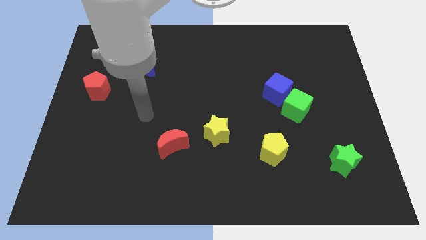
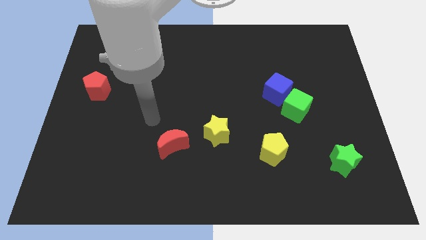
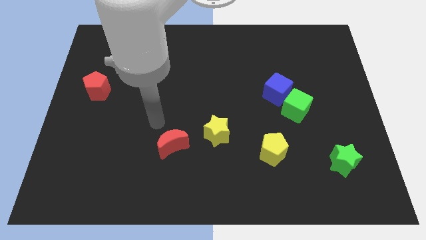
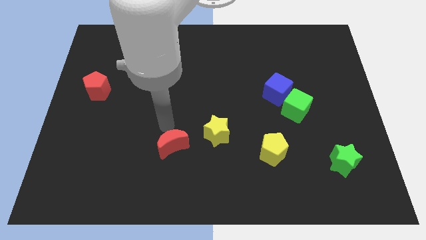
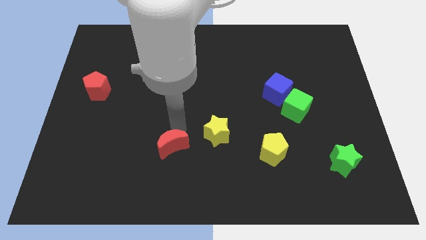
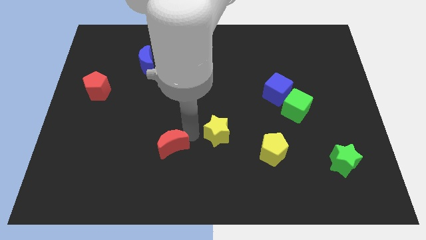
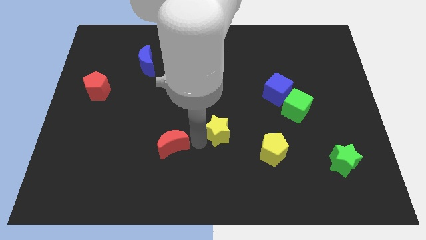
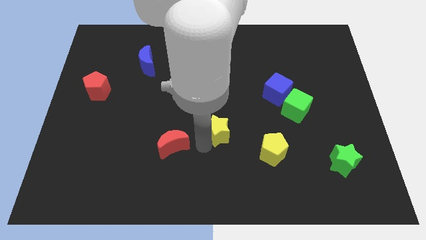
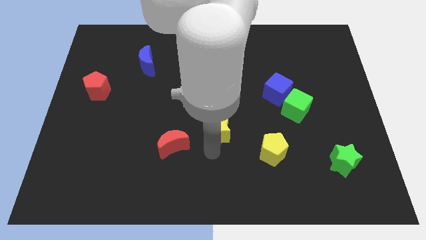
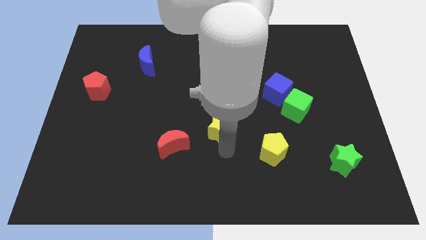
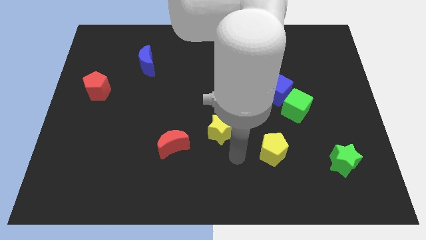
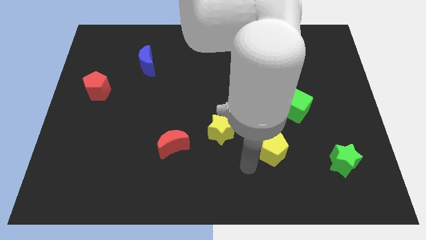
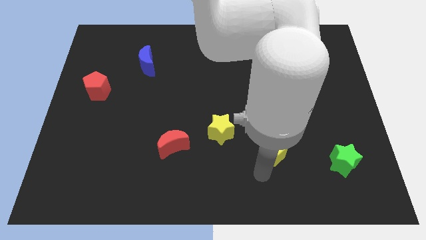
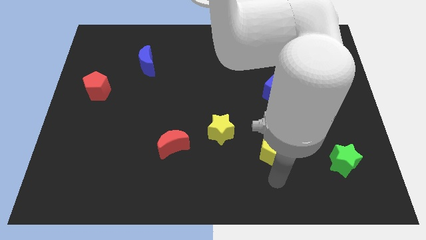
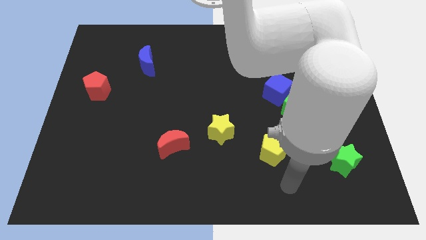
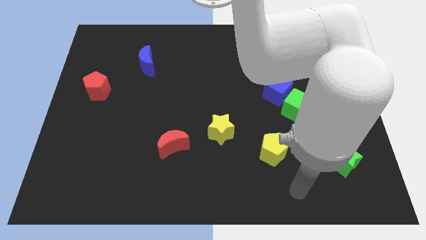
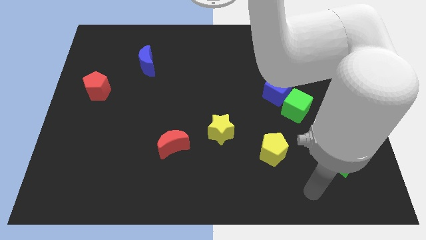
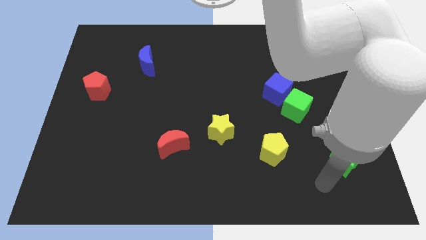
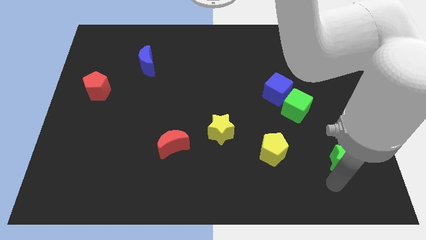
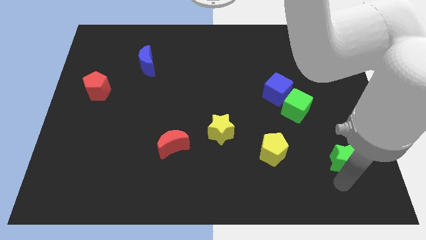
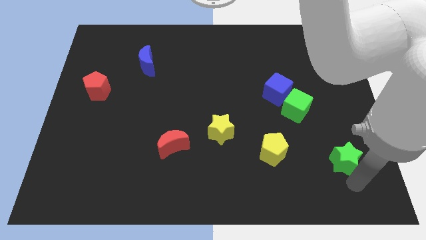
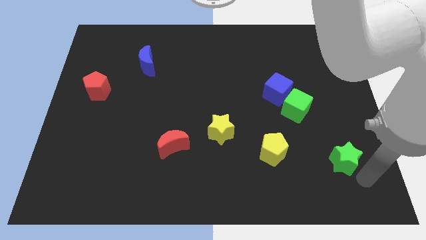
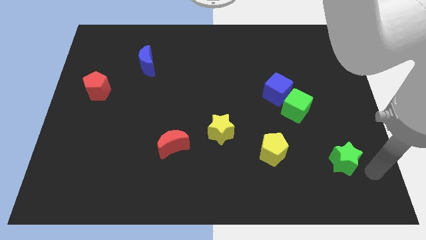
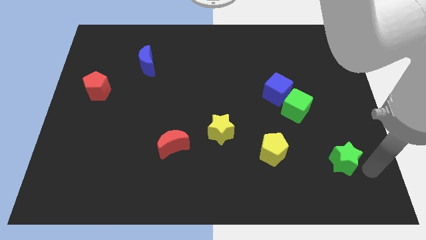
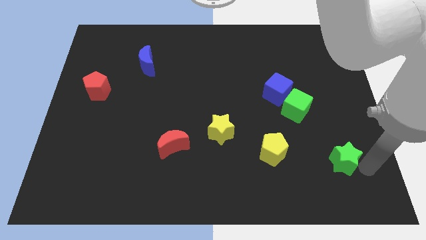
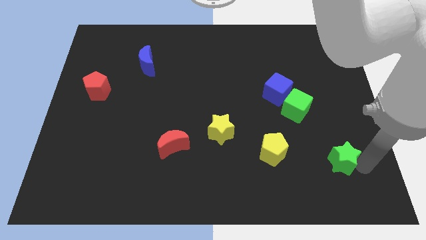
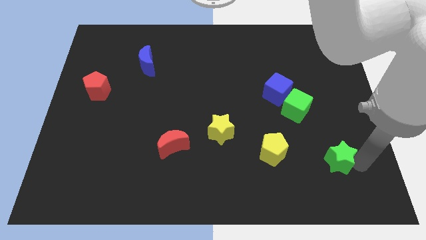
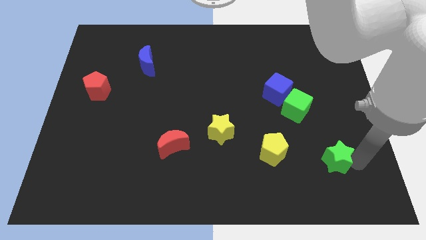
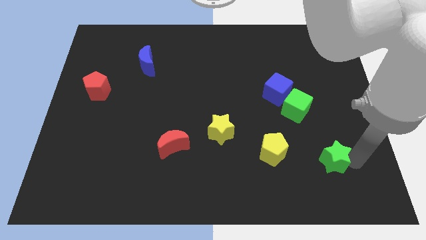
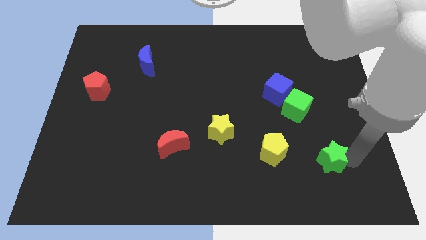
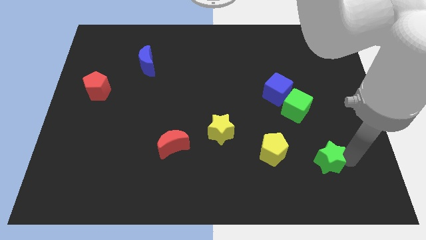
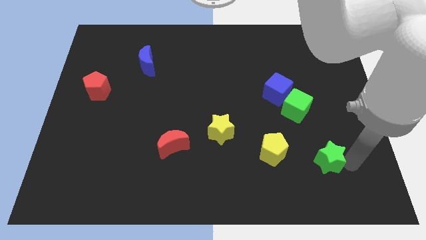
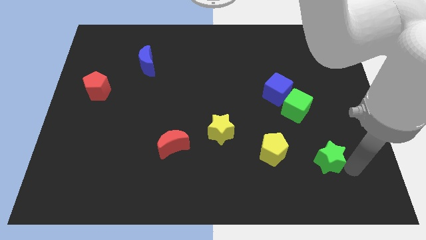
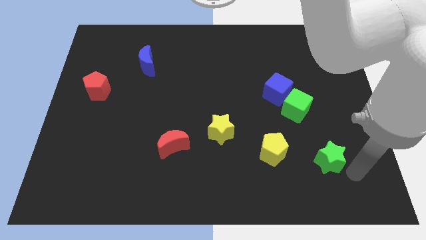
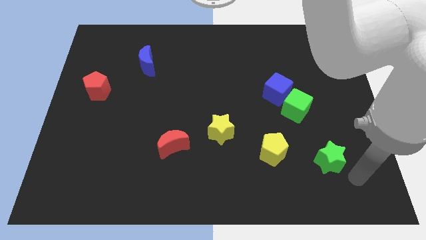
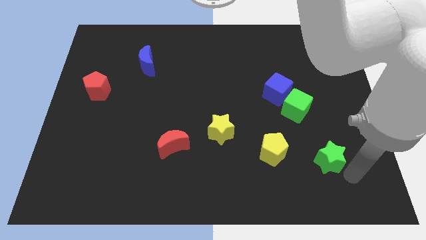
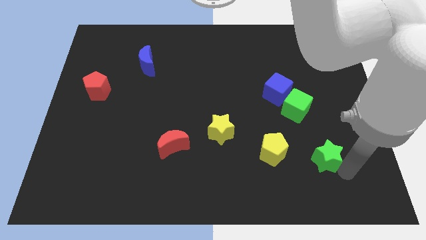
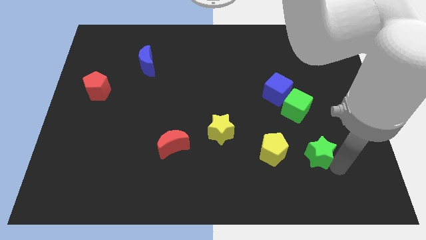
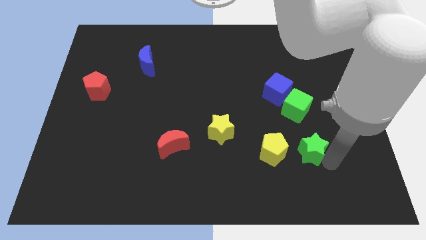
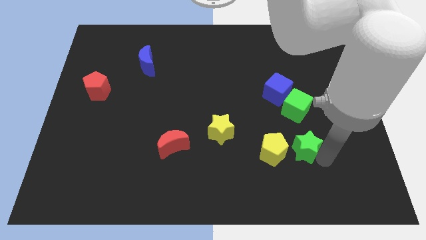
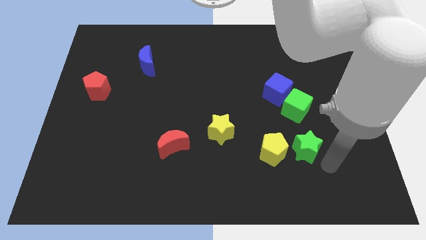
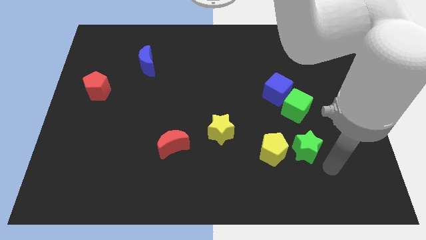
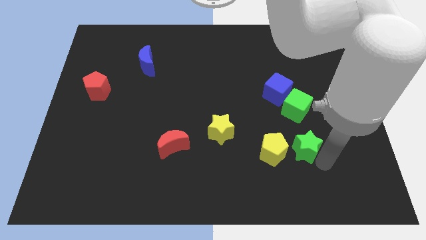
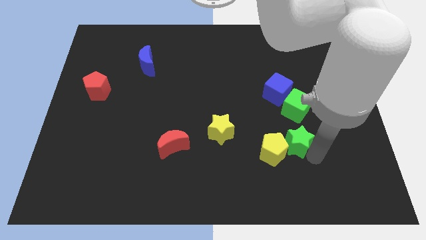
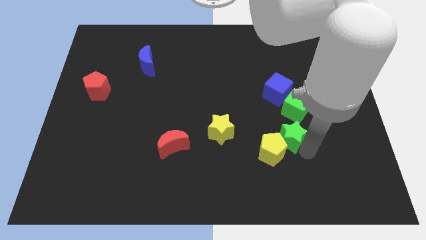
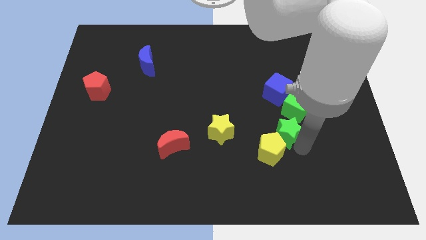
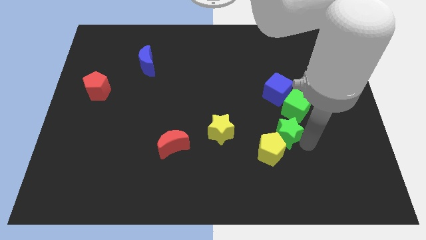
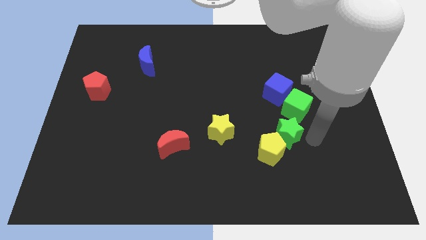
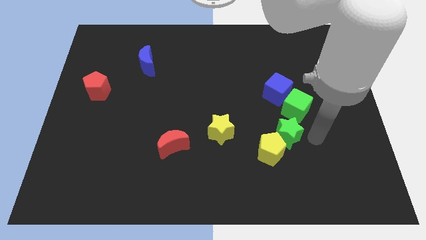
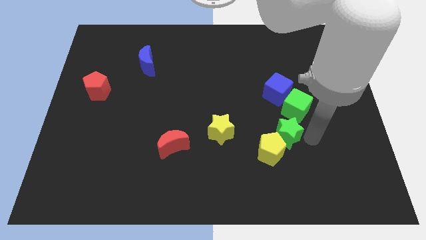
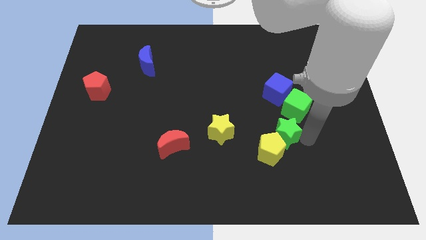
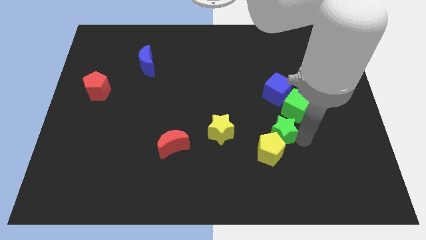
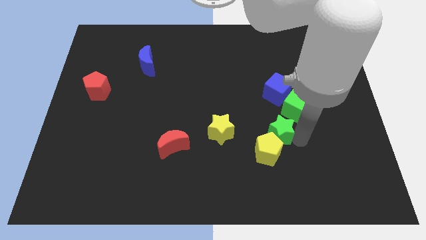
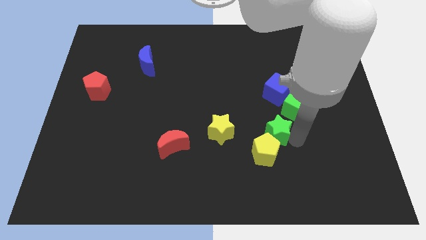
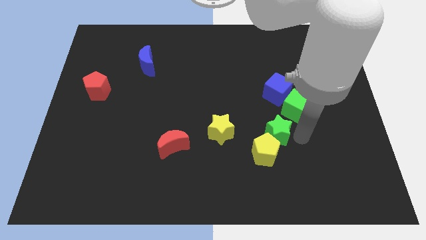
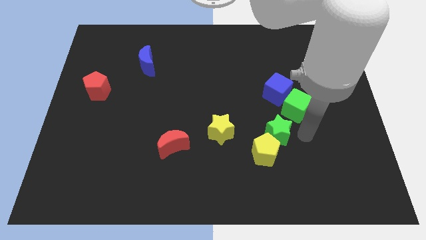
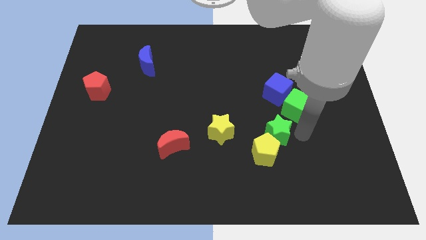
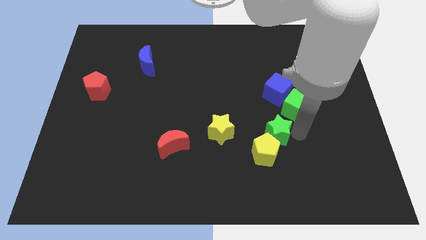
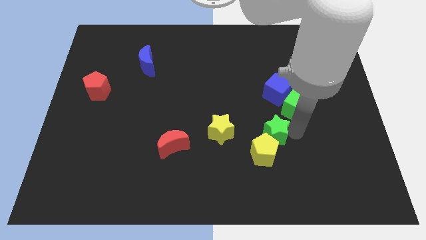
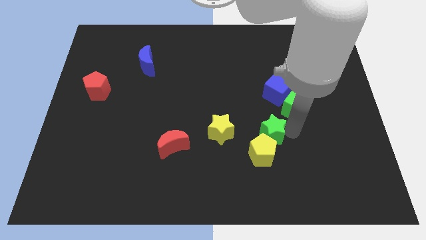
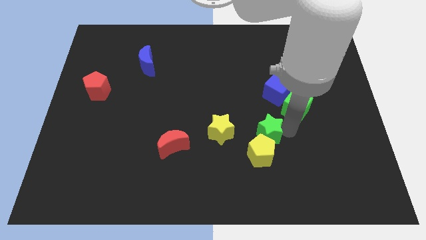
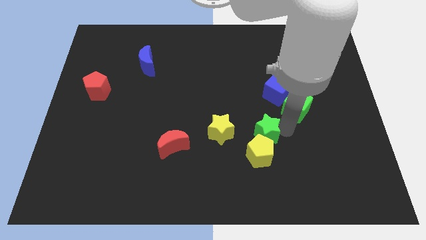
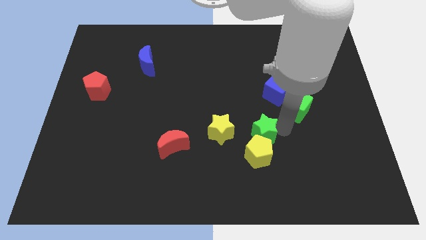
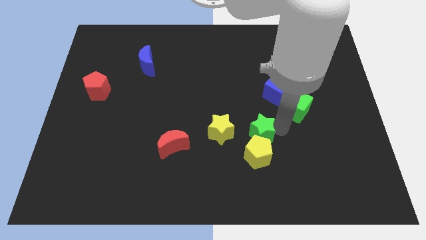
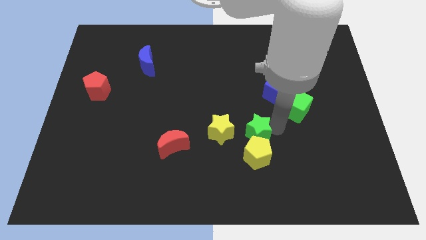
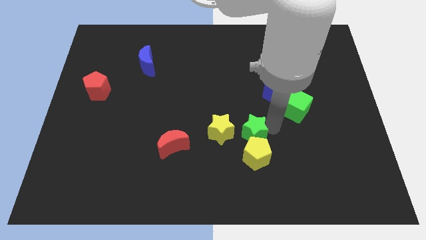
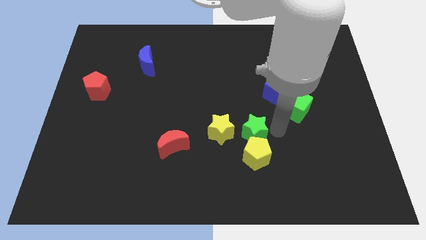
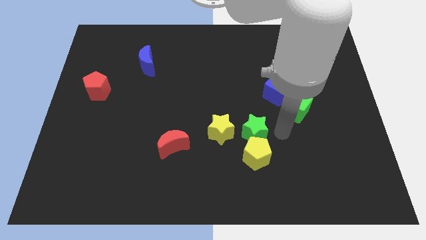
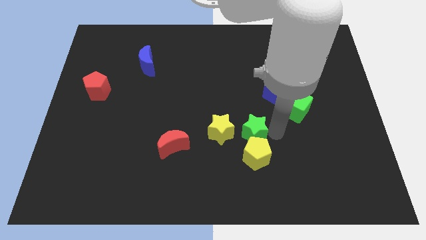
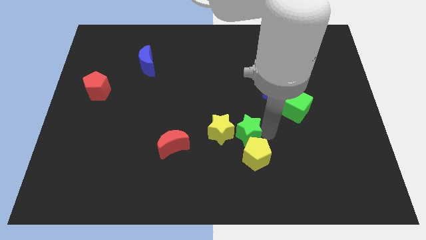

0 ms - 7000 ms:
move the green star to the yellow star
